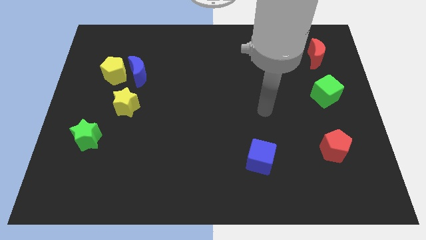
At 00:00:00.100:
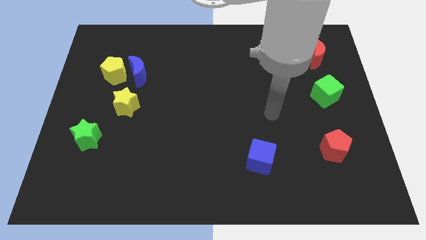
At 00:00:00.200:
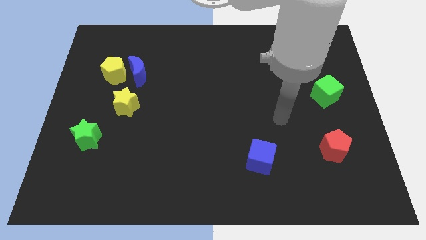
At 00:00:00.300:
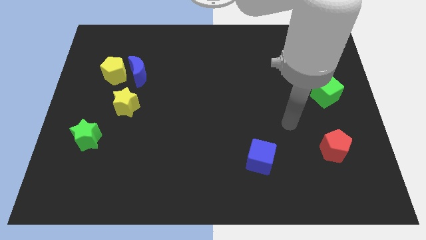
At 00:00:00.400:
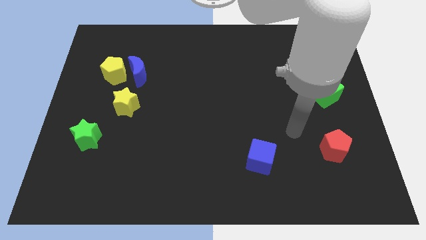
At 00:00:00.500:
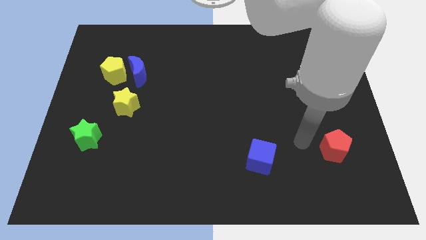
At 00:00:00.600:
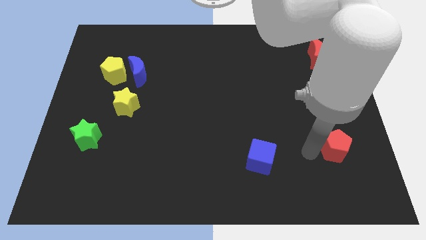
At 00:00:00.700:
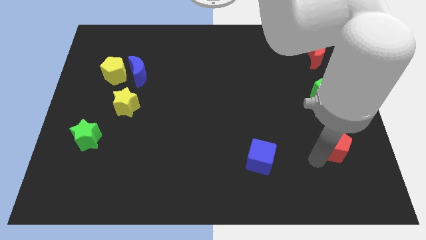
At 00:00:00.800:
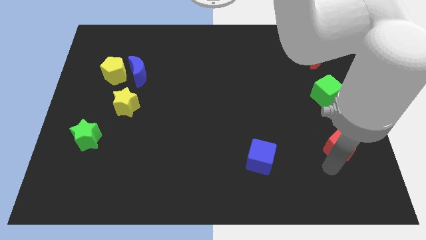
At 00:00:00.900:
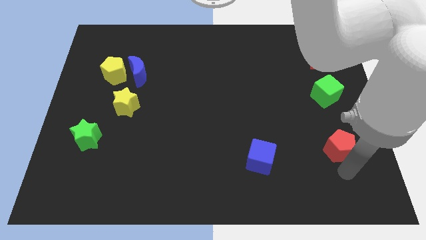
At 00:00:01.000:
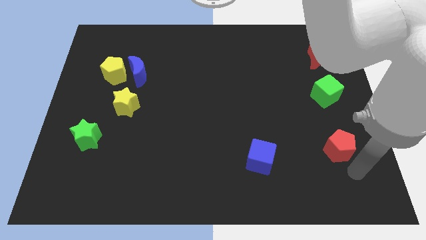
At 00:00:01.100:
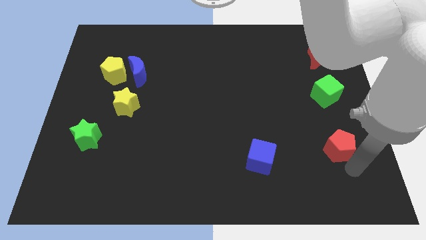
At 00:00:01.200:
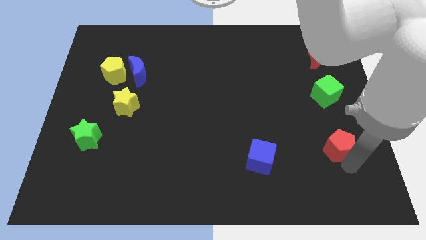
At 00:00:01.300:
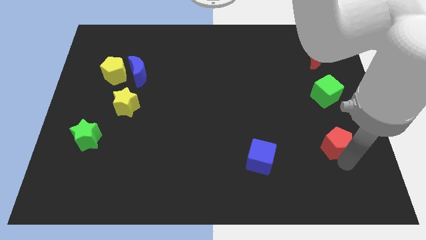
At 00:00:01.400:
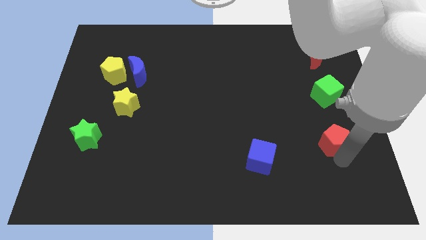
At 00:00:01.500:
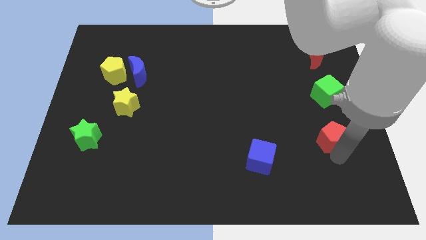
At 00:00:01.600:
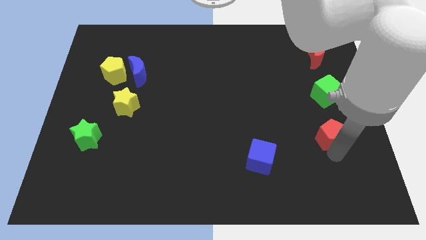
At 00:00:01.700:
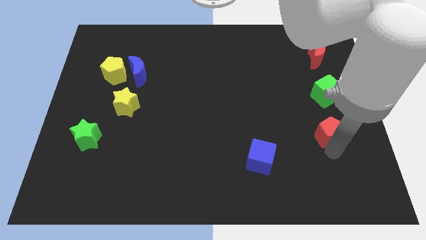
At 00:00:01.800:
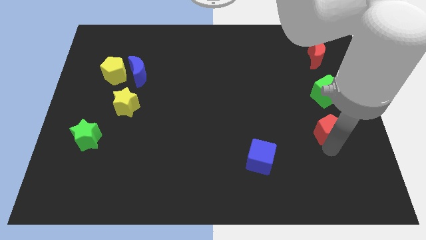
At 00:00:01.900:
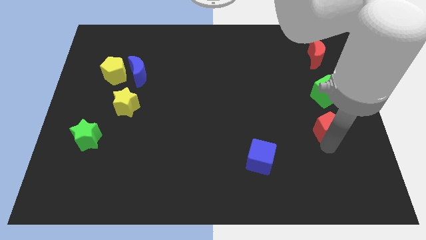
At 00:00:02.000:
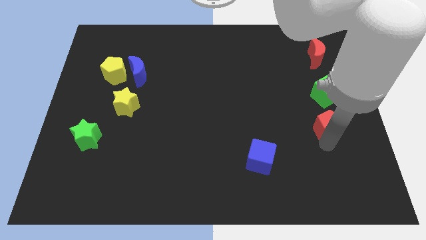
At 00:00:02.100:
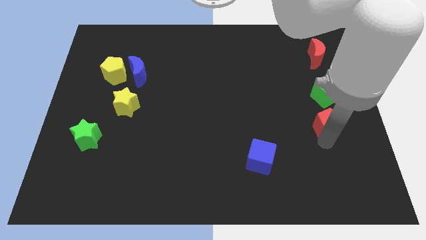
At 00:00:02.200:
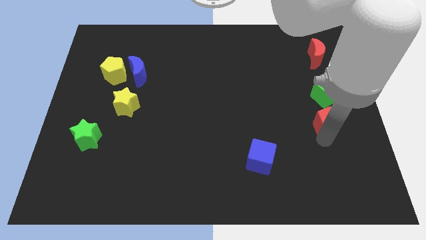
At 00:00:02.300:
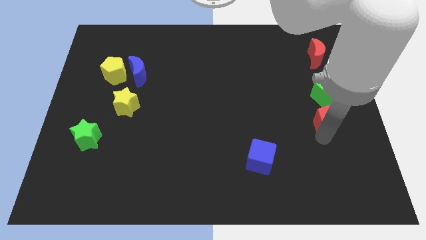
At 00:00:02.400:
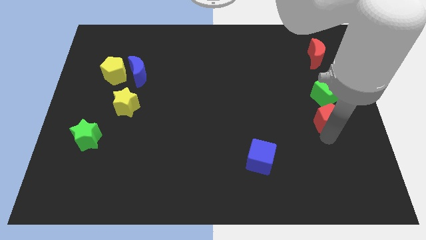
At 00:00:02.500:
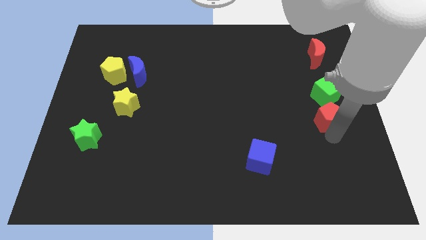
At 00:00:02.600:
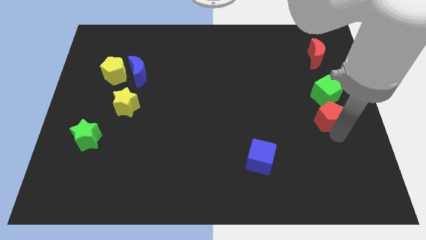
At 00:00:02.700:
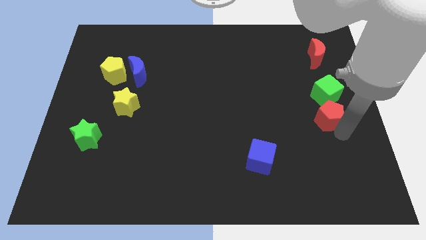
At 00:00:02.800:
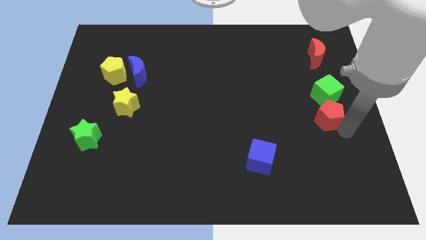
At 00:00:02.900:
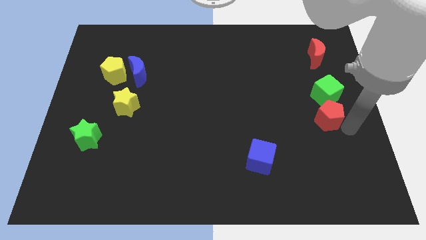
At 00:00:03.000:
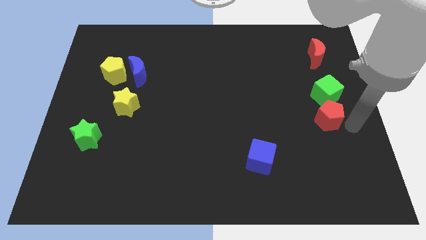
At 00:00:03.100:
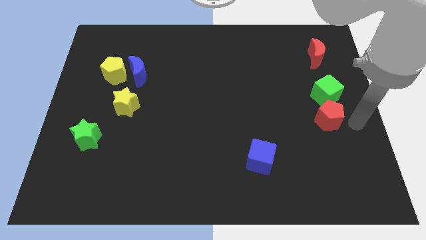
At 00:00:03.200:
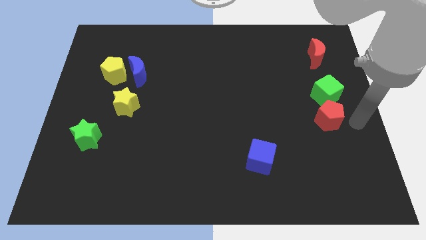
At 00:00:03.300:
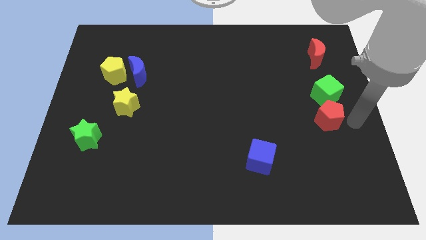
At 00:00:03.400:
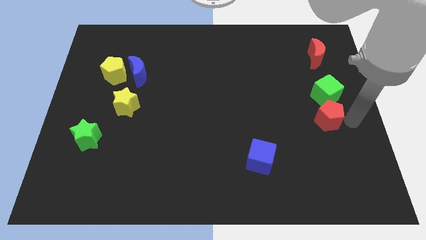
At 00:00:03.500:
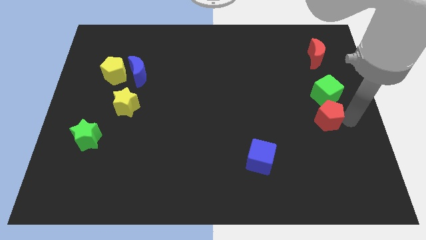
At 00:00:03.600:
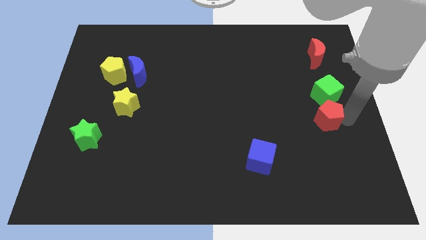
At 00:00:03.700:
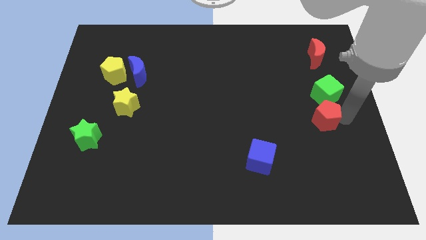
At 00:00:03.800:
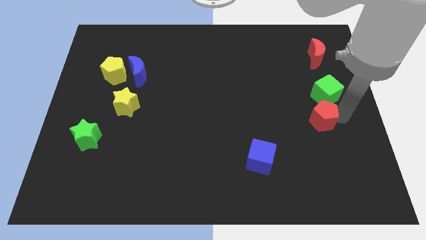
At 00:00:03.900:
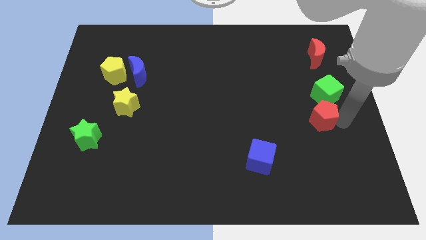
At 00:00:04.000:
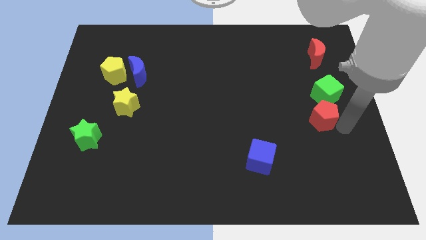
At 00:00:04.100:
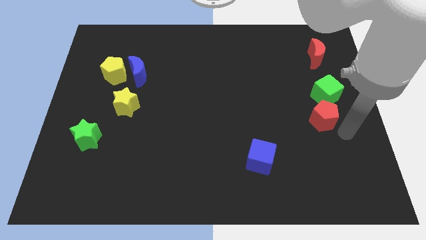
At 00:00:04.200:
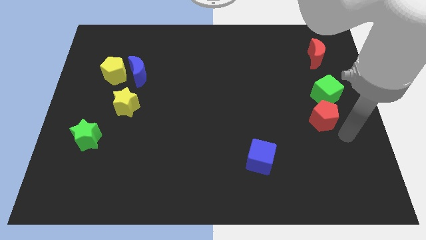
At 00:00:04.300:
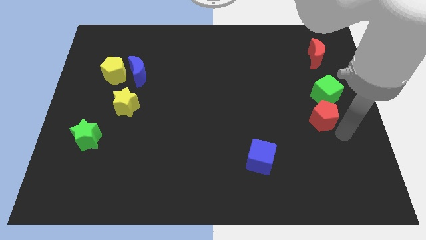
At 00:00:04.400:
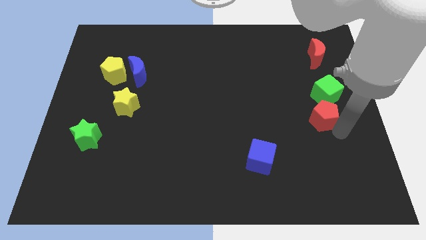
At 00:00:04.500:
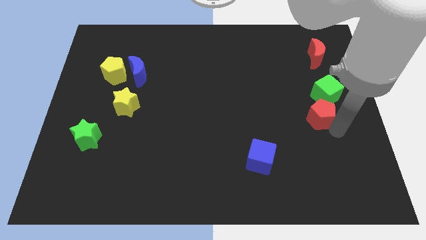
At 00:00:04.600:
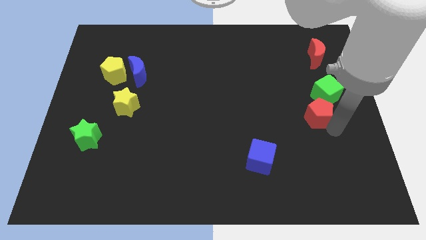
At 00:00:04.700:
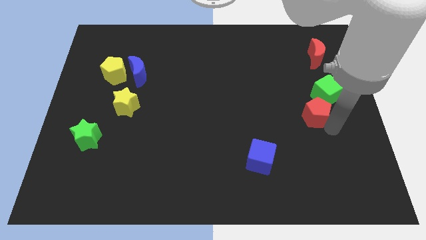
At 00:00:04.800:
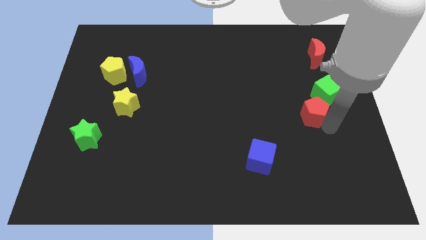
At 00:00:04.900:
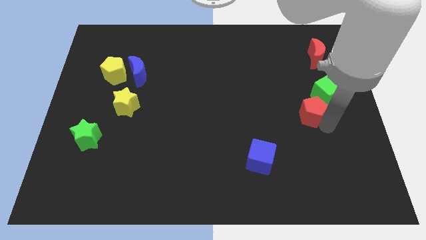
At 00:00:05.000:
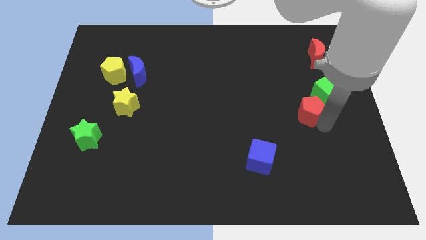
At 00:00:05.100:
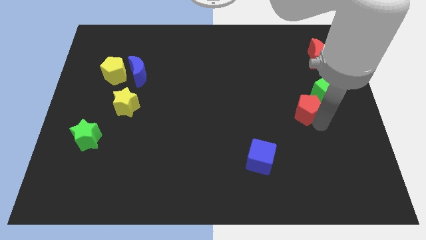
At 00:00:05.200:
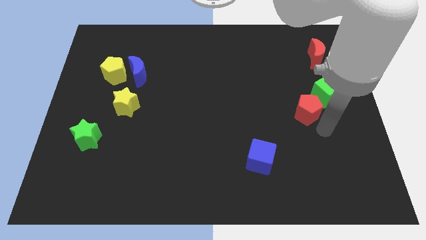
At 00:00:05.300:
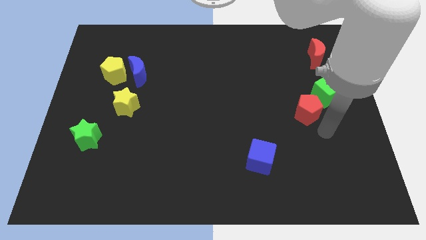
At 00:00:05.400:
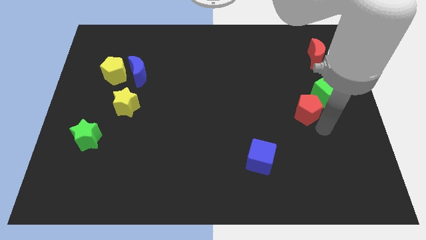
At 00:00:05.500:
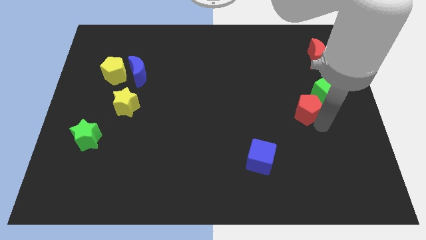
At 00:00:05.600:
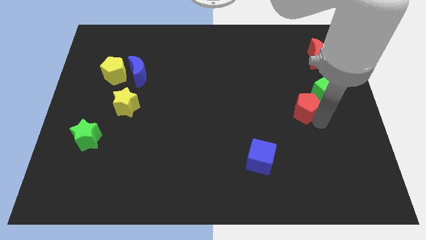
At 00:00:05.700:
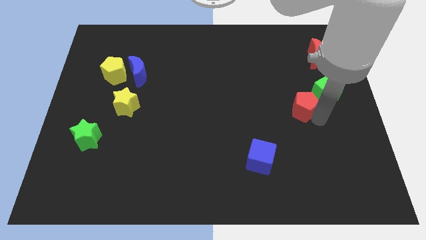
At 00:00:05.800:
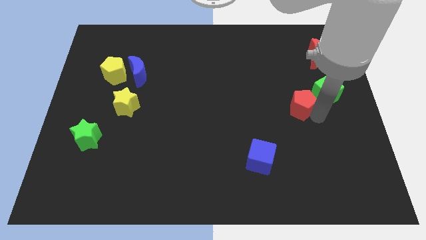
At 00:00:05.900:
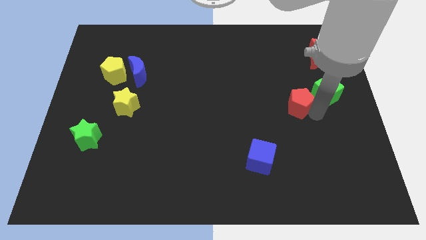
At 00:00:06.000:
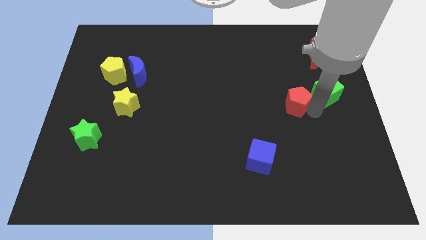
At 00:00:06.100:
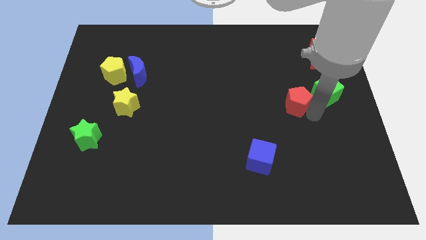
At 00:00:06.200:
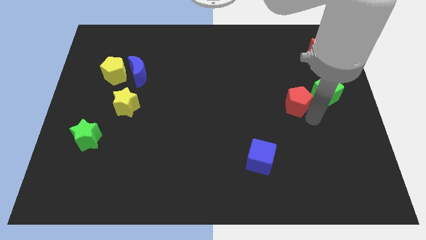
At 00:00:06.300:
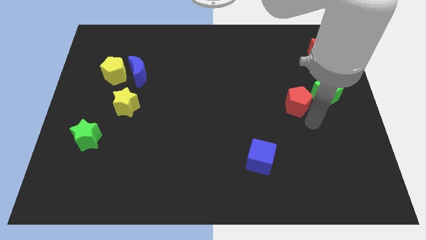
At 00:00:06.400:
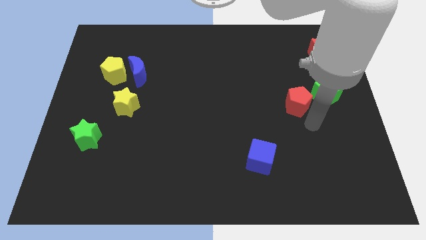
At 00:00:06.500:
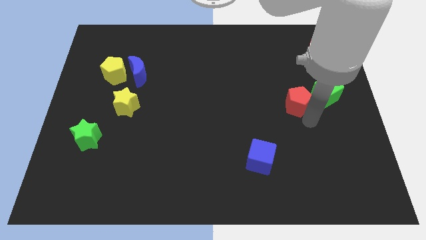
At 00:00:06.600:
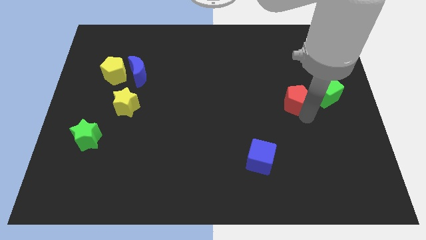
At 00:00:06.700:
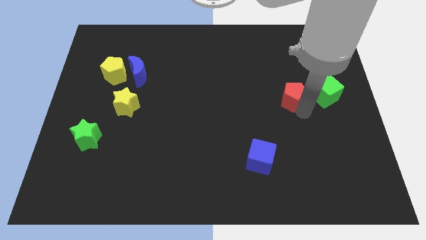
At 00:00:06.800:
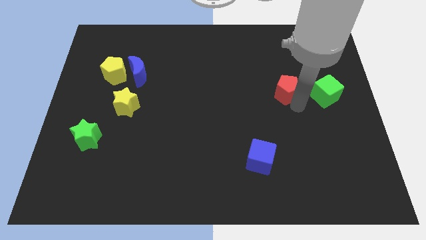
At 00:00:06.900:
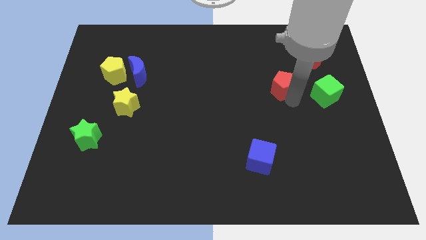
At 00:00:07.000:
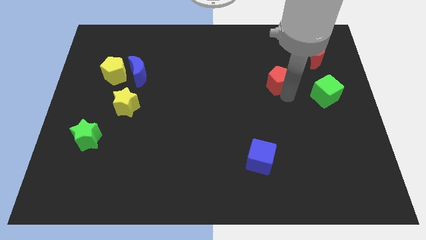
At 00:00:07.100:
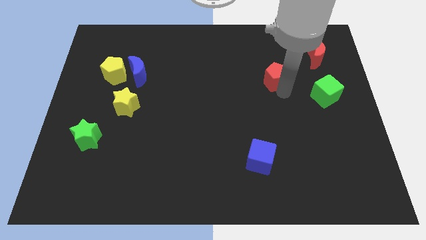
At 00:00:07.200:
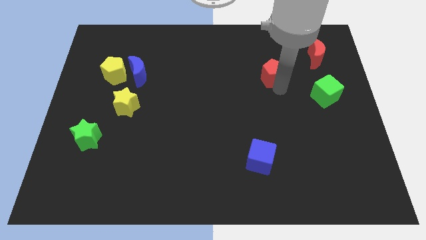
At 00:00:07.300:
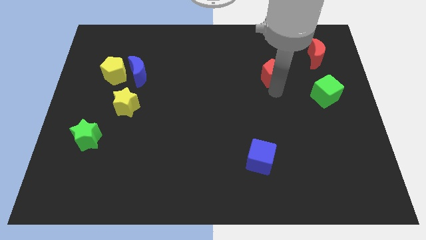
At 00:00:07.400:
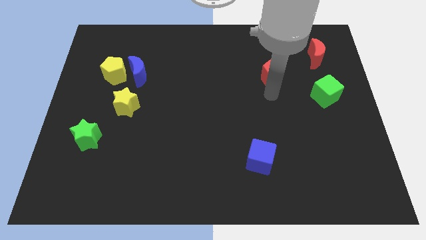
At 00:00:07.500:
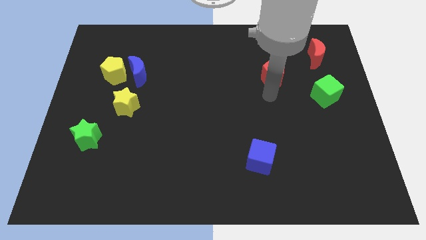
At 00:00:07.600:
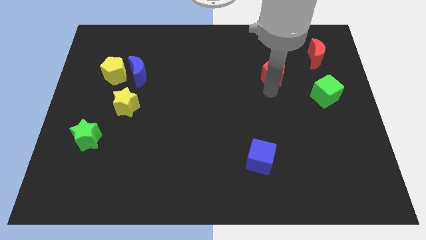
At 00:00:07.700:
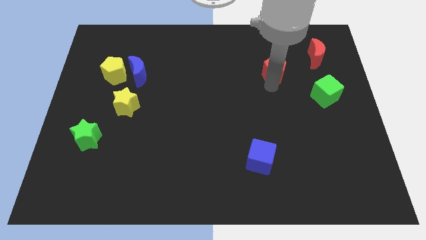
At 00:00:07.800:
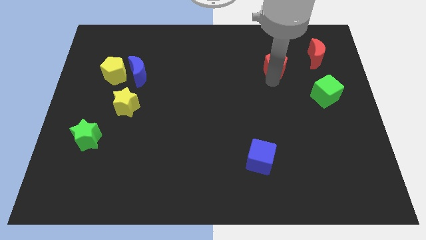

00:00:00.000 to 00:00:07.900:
move the red pentagon to the left of the red moon
